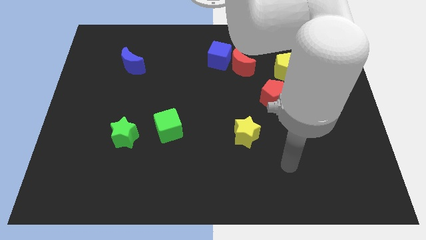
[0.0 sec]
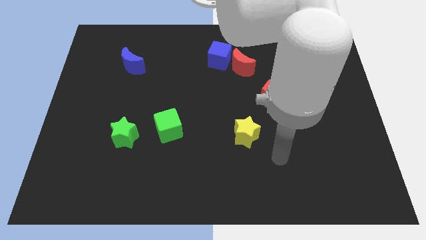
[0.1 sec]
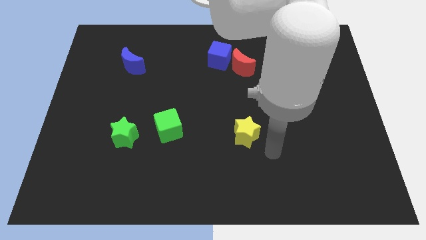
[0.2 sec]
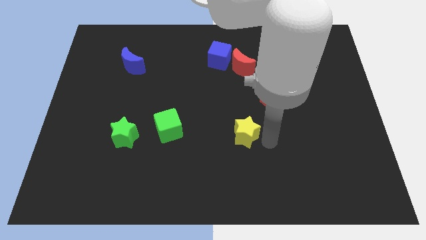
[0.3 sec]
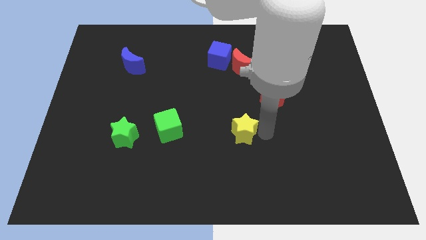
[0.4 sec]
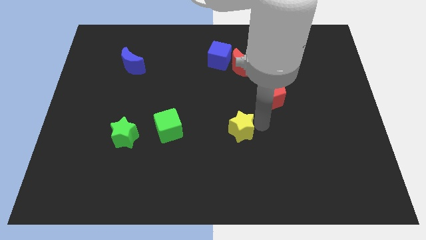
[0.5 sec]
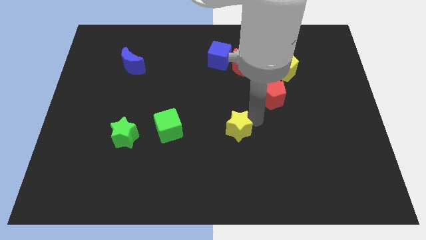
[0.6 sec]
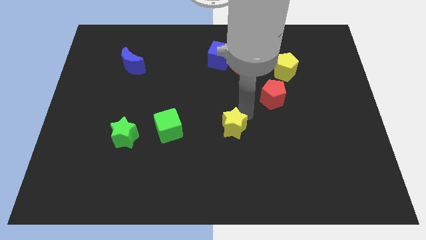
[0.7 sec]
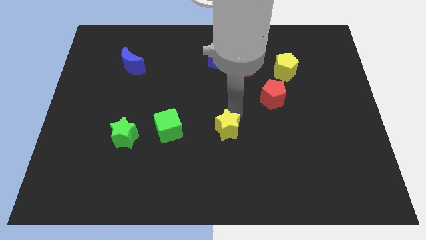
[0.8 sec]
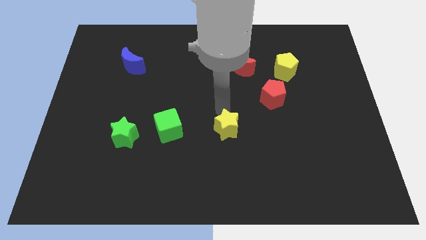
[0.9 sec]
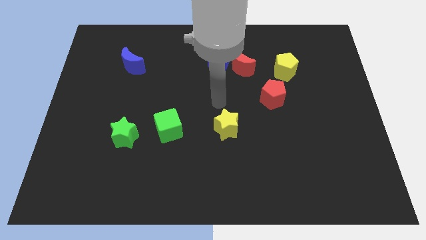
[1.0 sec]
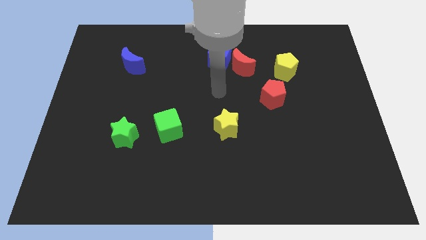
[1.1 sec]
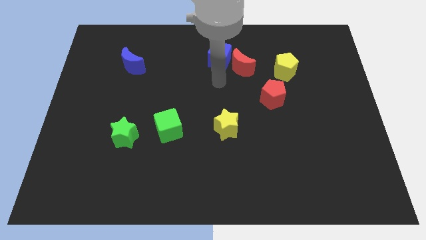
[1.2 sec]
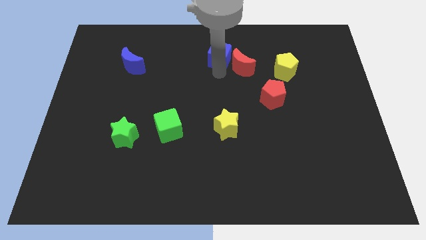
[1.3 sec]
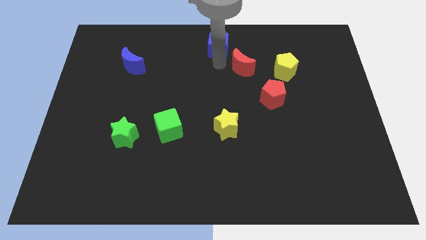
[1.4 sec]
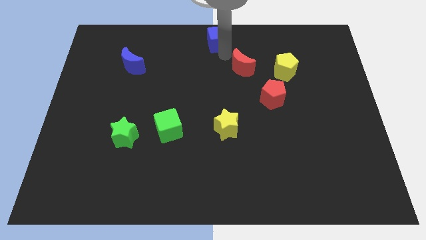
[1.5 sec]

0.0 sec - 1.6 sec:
separate the red moon from the blue cube

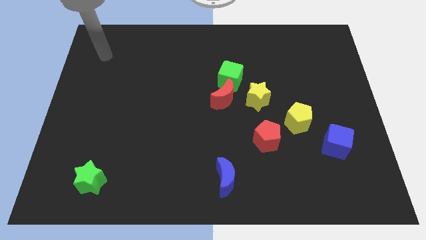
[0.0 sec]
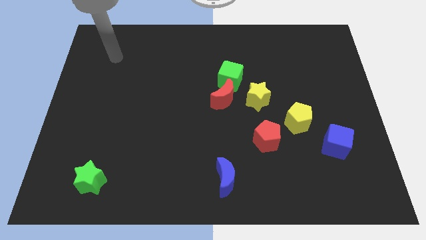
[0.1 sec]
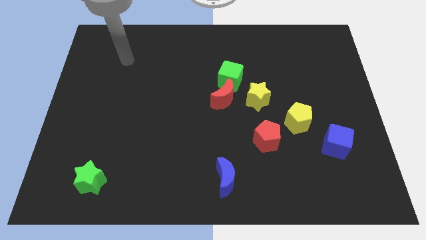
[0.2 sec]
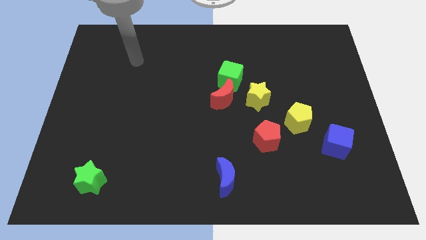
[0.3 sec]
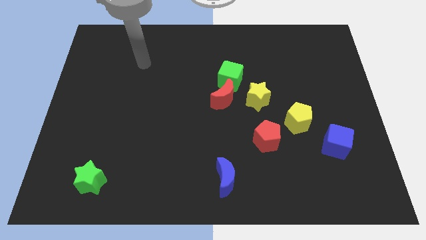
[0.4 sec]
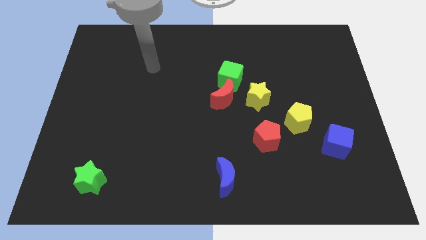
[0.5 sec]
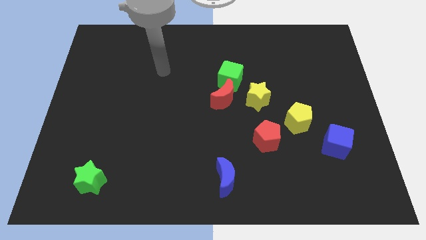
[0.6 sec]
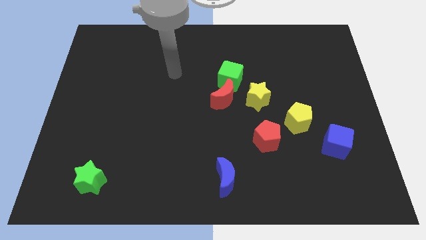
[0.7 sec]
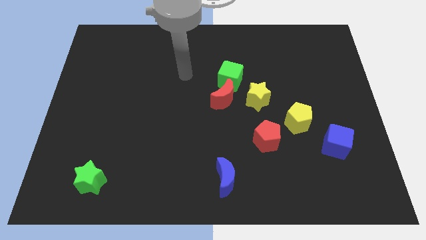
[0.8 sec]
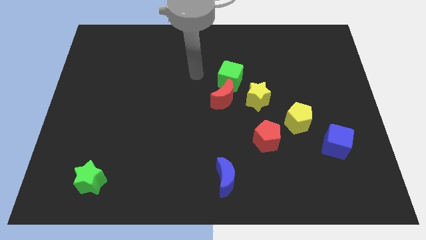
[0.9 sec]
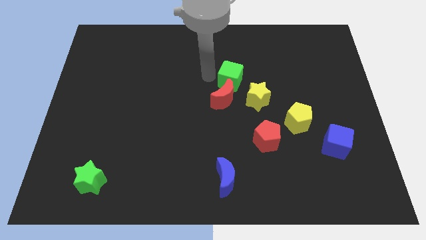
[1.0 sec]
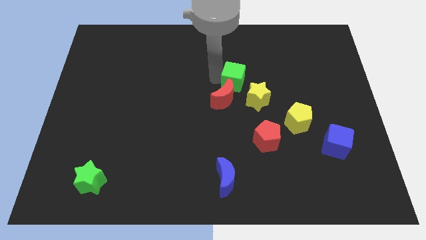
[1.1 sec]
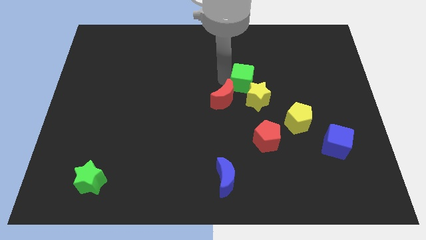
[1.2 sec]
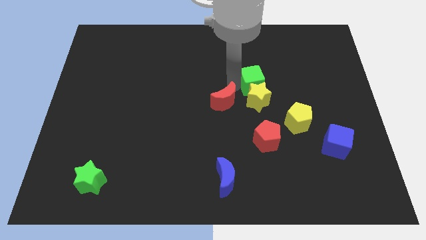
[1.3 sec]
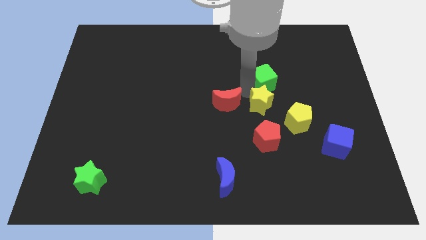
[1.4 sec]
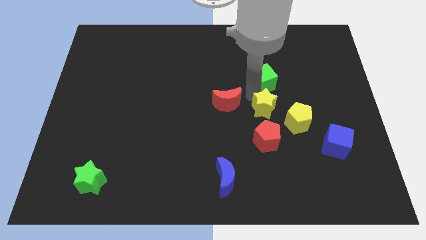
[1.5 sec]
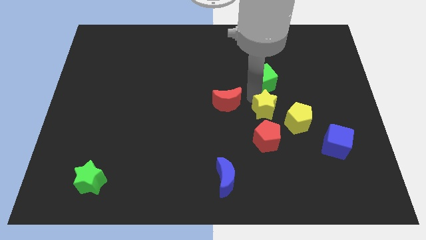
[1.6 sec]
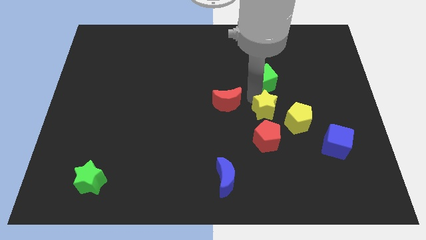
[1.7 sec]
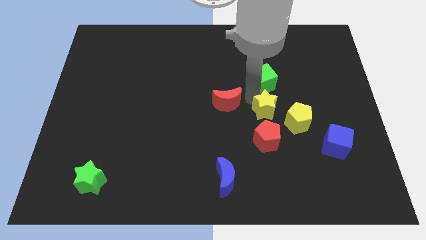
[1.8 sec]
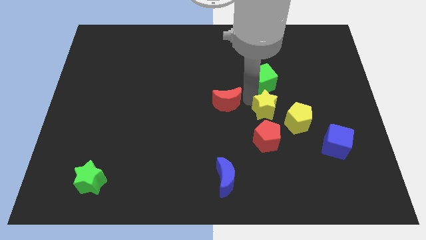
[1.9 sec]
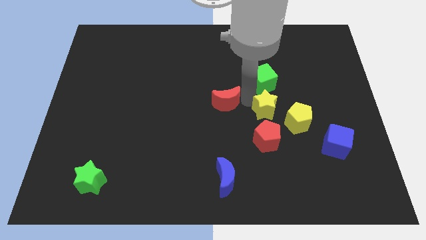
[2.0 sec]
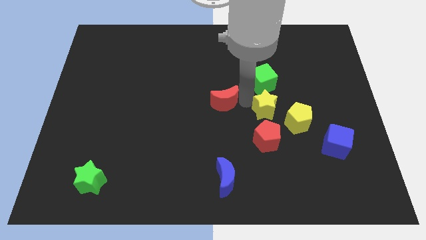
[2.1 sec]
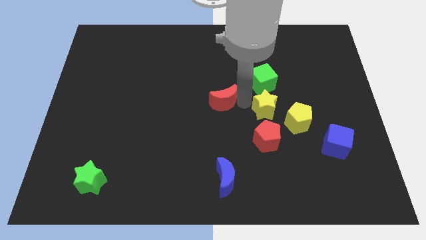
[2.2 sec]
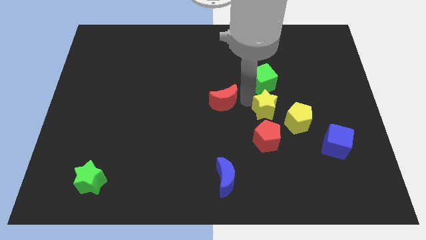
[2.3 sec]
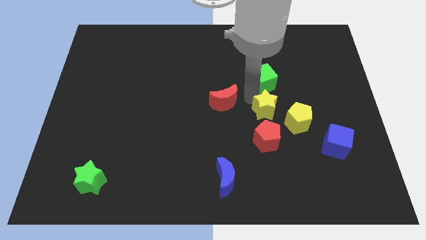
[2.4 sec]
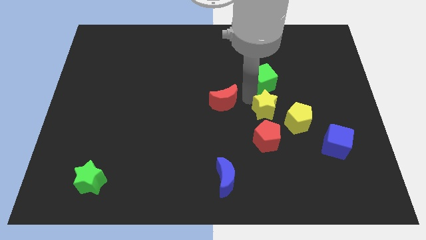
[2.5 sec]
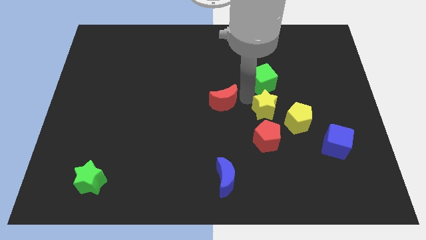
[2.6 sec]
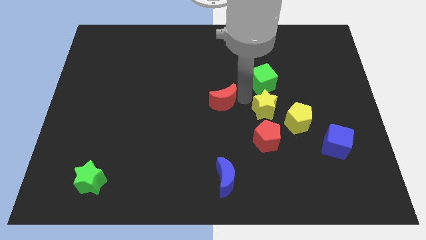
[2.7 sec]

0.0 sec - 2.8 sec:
separate the red moon from the green cube and yellow star

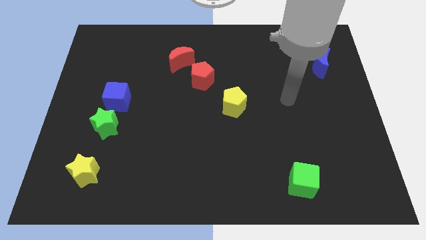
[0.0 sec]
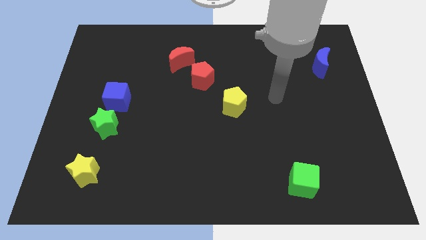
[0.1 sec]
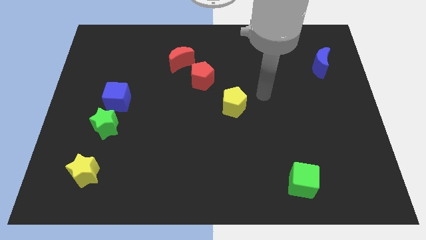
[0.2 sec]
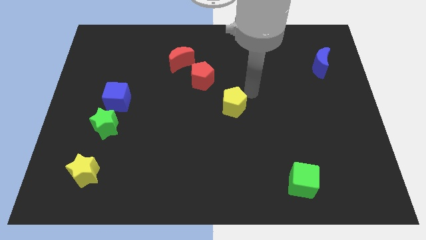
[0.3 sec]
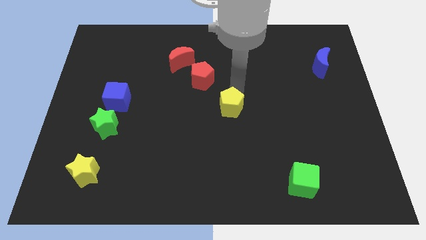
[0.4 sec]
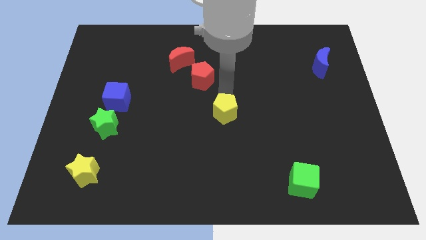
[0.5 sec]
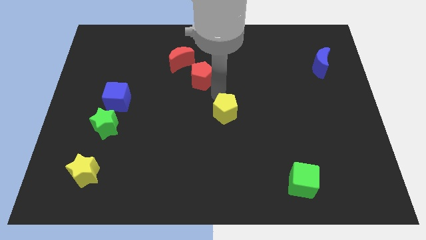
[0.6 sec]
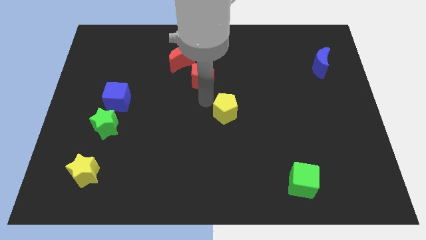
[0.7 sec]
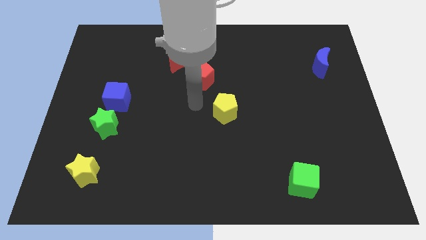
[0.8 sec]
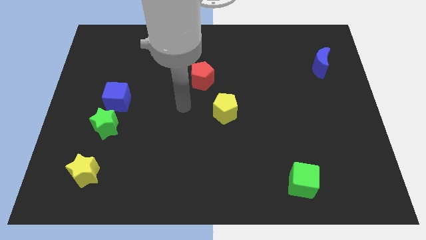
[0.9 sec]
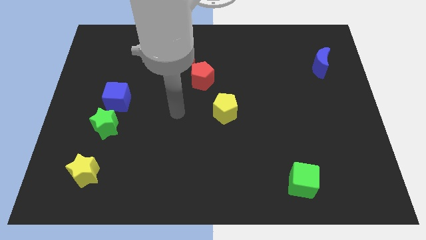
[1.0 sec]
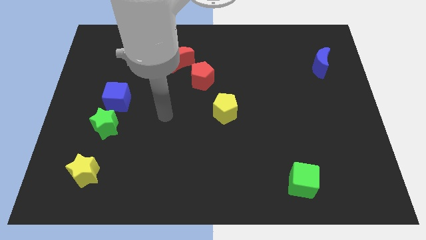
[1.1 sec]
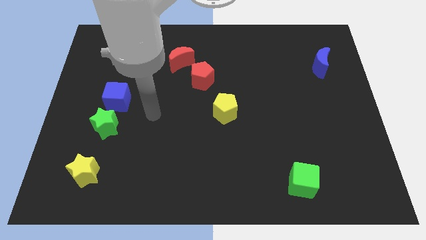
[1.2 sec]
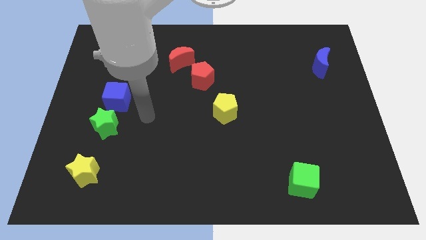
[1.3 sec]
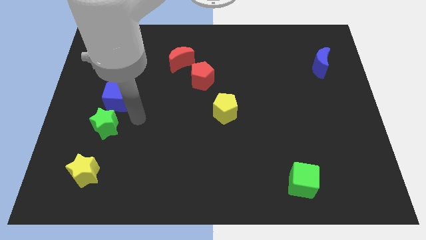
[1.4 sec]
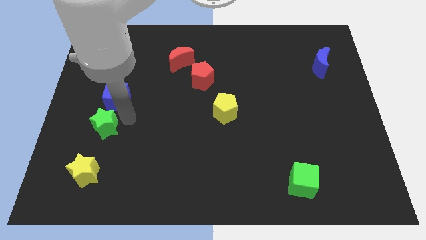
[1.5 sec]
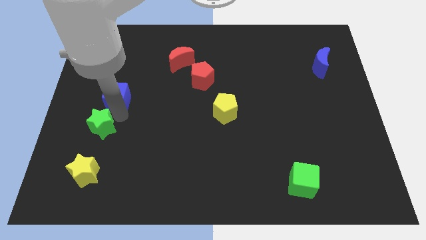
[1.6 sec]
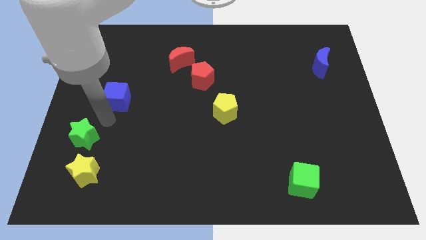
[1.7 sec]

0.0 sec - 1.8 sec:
separate the blue cube from the green star

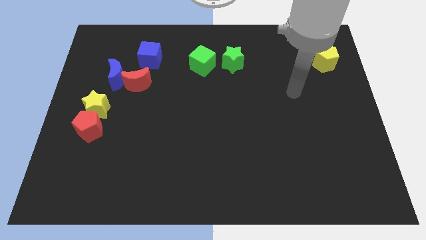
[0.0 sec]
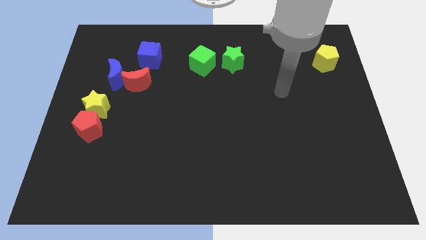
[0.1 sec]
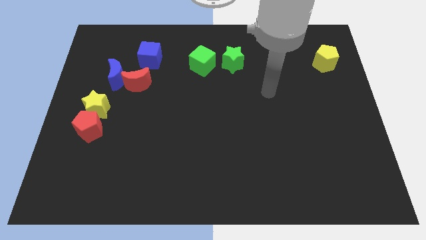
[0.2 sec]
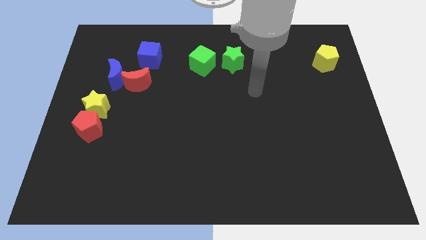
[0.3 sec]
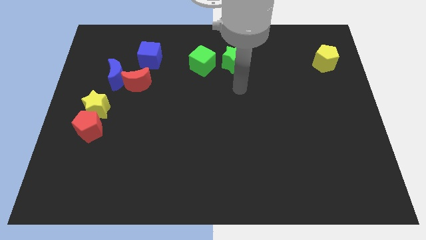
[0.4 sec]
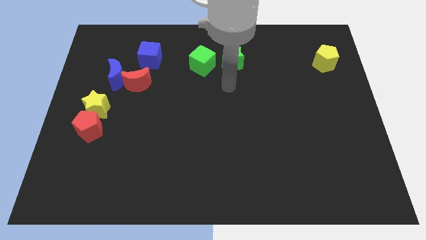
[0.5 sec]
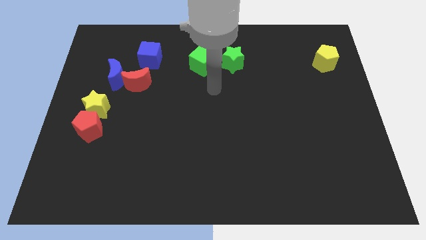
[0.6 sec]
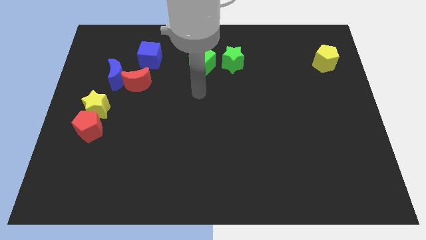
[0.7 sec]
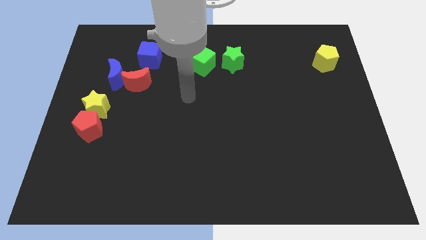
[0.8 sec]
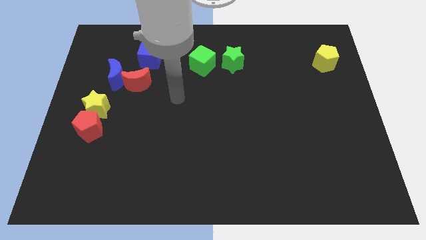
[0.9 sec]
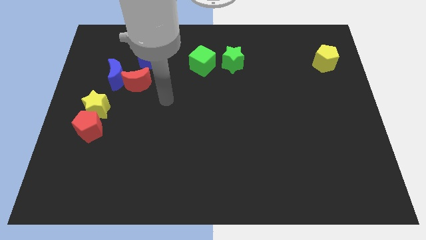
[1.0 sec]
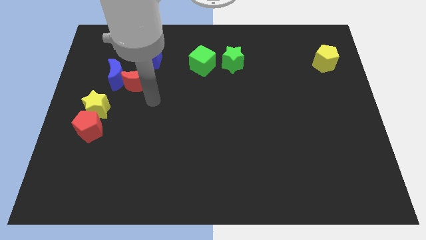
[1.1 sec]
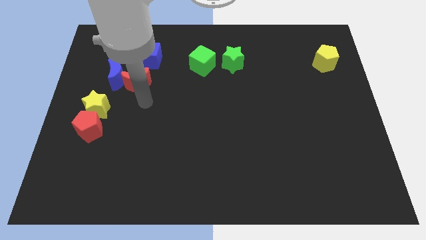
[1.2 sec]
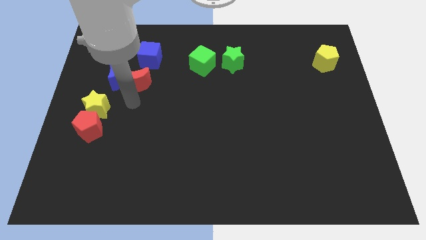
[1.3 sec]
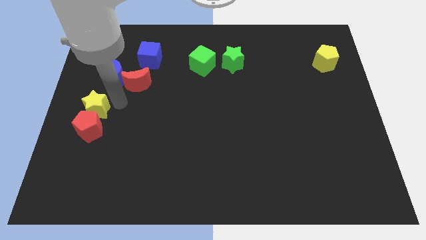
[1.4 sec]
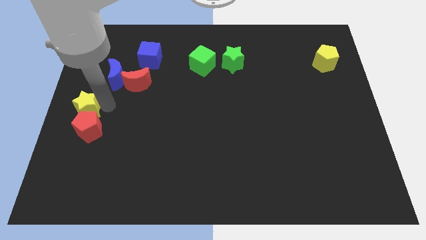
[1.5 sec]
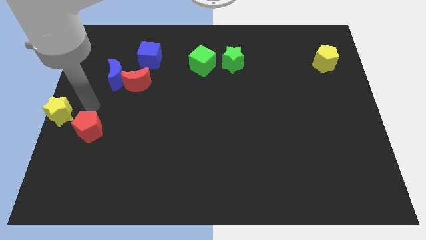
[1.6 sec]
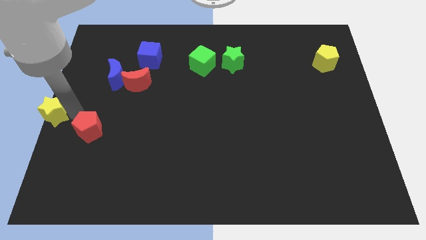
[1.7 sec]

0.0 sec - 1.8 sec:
move the red pentagon away from the yellow star

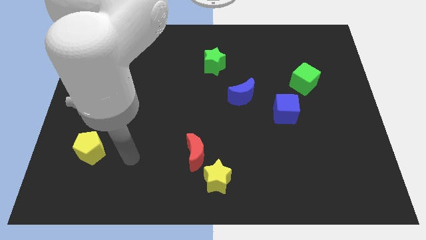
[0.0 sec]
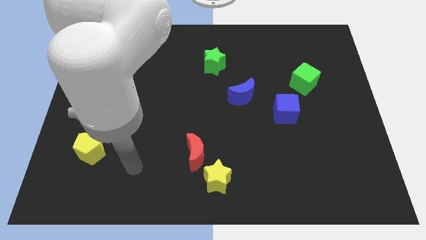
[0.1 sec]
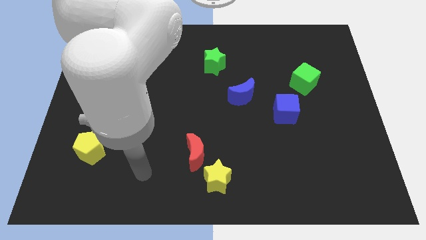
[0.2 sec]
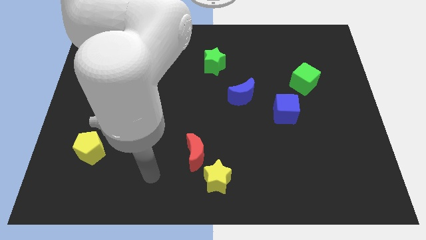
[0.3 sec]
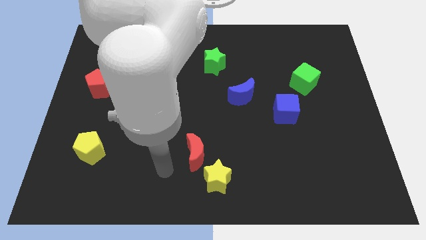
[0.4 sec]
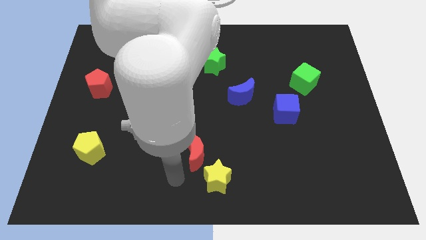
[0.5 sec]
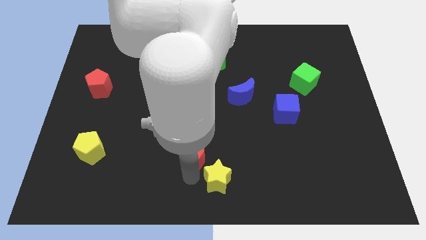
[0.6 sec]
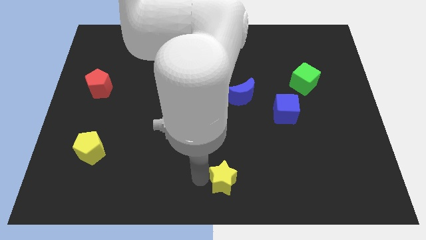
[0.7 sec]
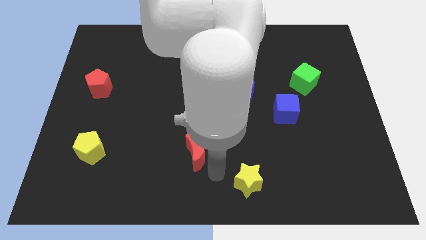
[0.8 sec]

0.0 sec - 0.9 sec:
pull the red moon apart from the yellow star

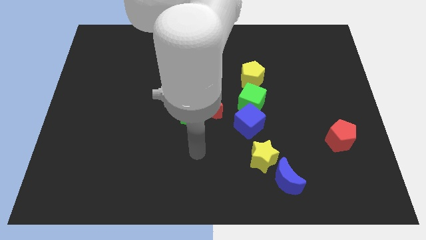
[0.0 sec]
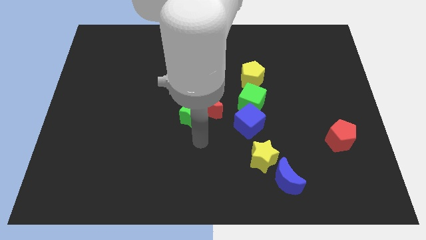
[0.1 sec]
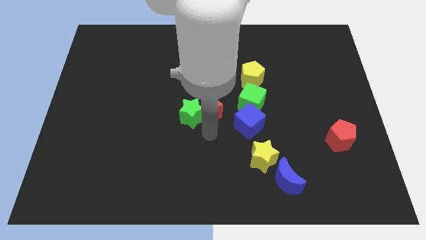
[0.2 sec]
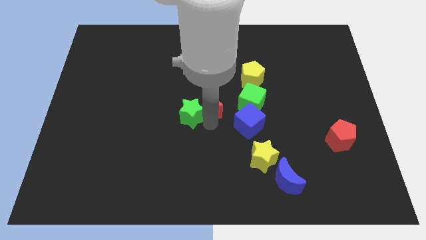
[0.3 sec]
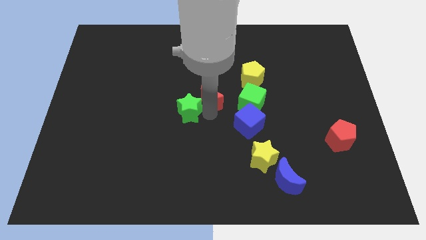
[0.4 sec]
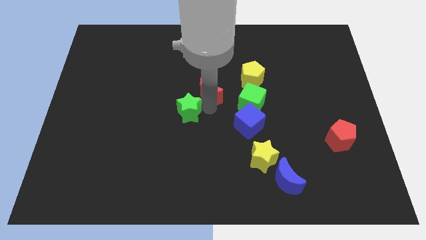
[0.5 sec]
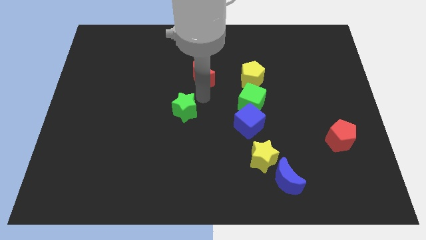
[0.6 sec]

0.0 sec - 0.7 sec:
pull the green star apart from the red moon
